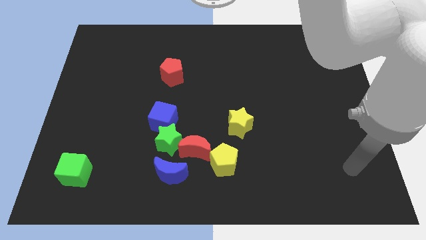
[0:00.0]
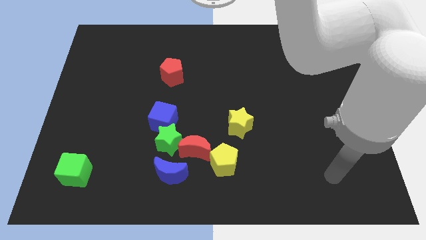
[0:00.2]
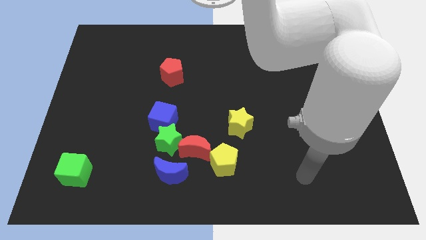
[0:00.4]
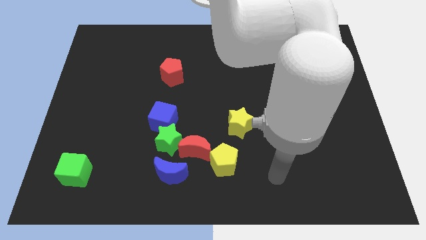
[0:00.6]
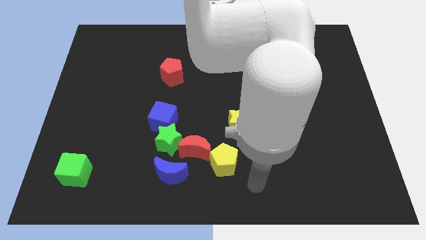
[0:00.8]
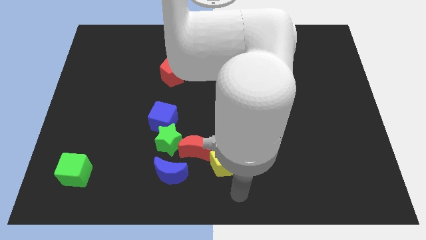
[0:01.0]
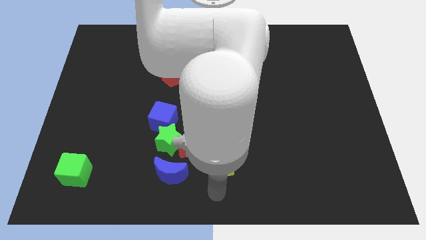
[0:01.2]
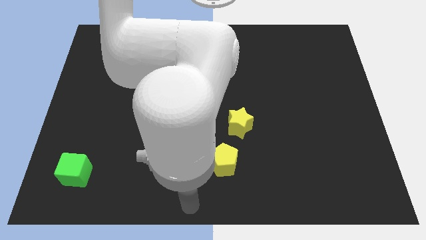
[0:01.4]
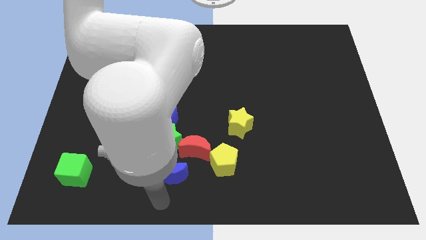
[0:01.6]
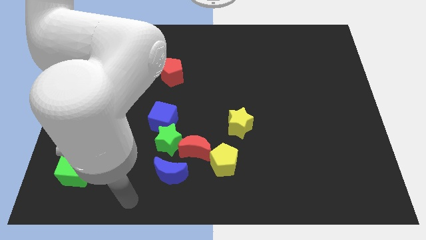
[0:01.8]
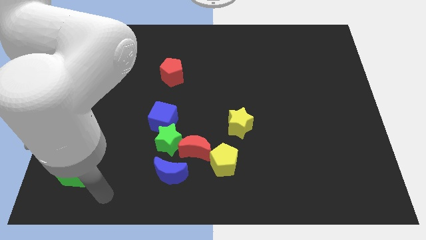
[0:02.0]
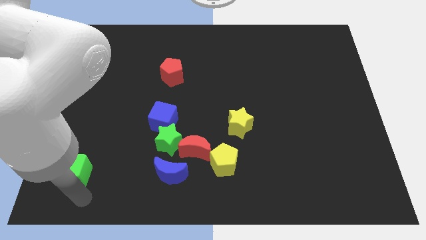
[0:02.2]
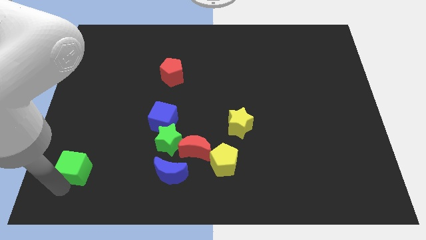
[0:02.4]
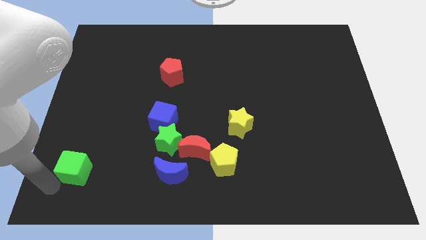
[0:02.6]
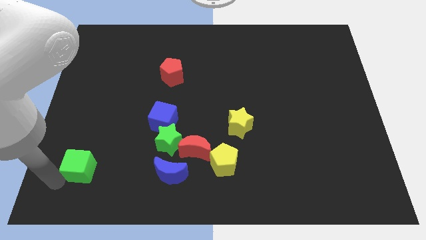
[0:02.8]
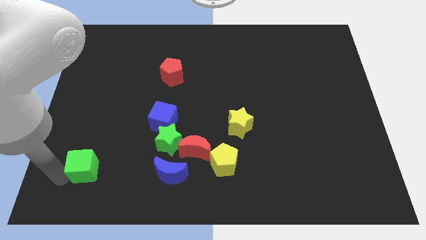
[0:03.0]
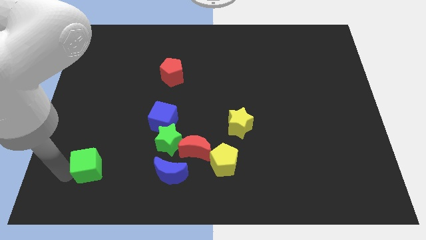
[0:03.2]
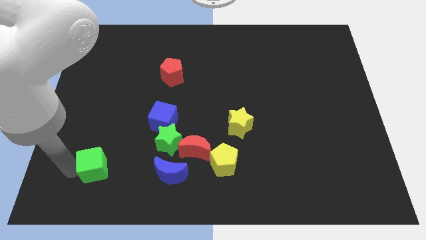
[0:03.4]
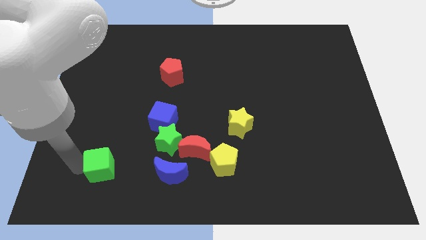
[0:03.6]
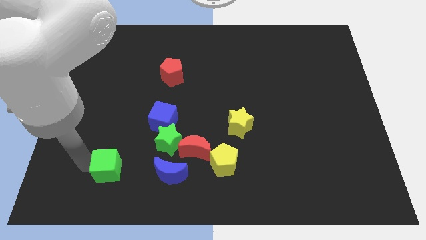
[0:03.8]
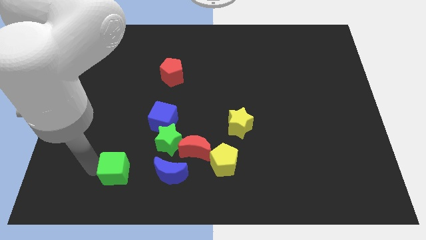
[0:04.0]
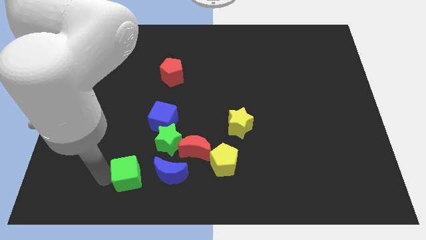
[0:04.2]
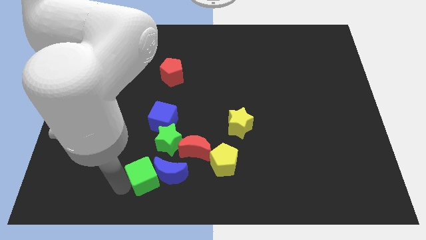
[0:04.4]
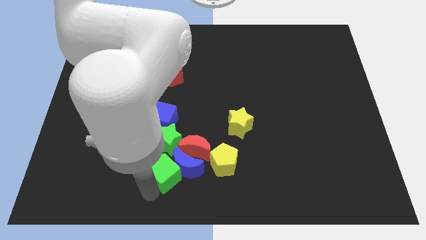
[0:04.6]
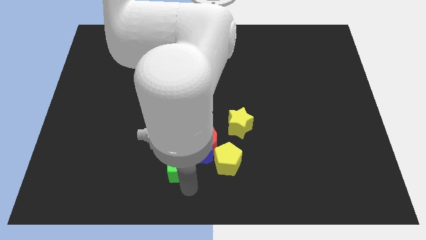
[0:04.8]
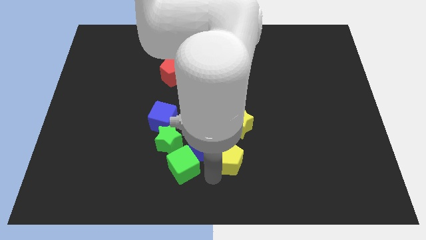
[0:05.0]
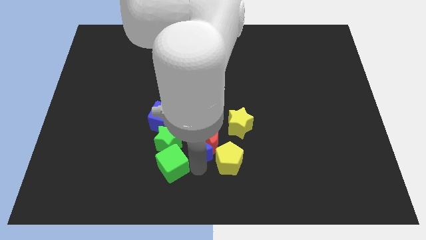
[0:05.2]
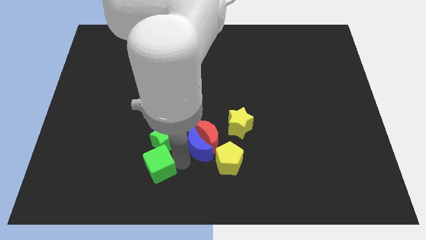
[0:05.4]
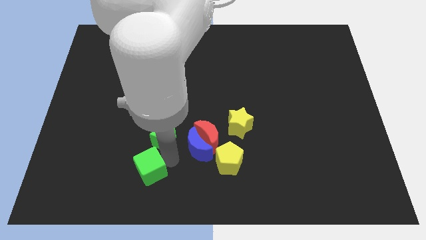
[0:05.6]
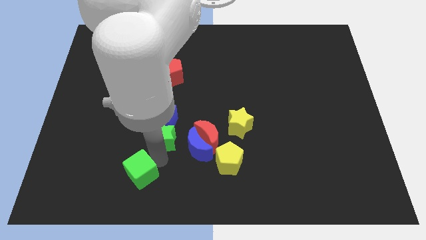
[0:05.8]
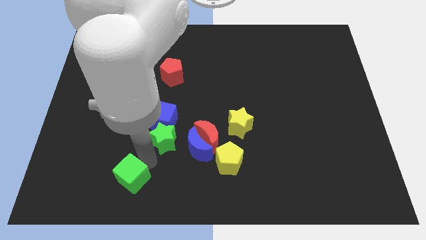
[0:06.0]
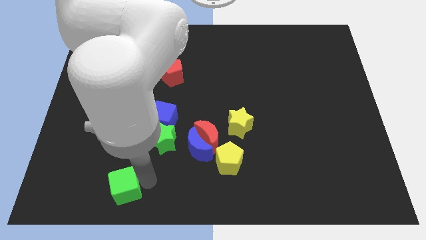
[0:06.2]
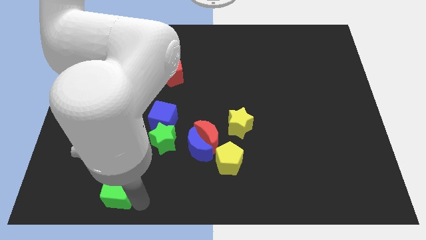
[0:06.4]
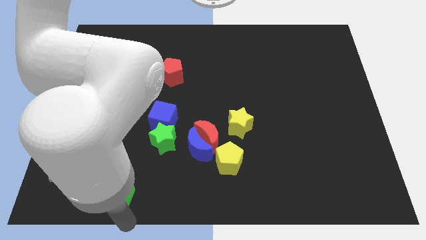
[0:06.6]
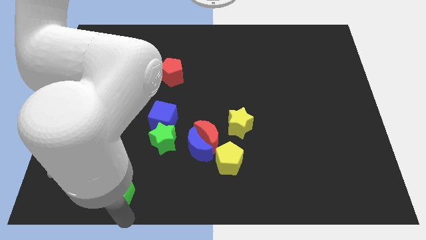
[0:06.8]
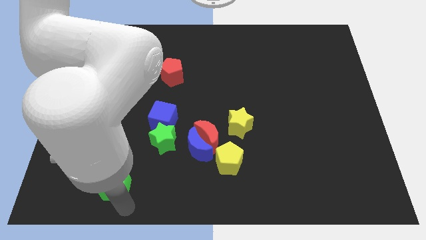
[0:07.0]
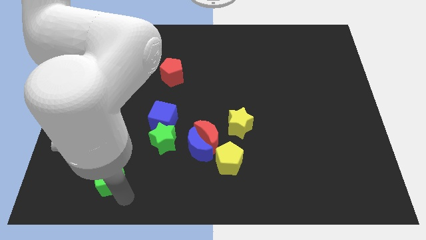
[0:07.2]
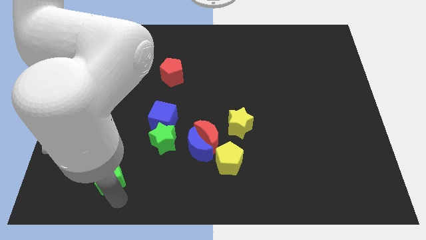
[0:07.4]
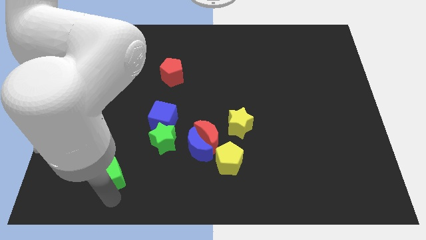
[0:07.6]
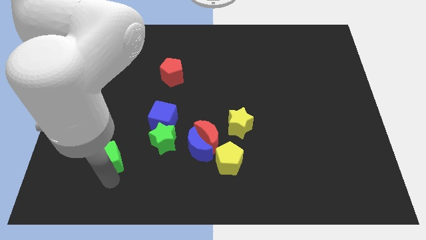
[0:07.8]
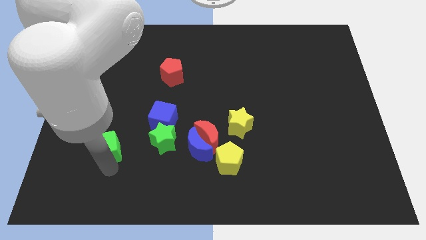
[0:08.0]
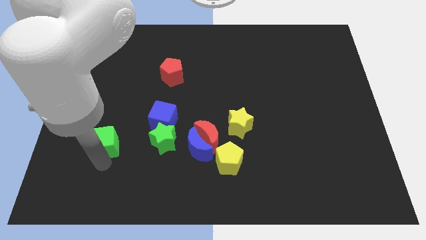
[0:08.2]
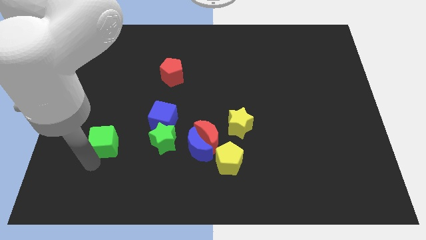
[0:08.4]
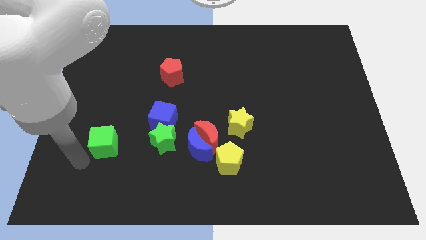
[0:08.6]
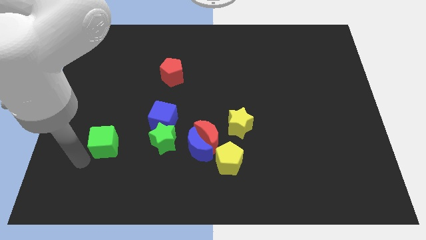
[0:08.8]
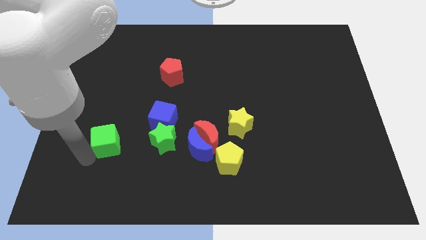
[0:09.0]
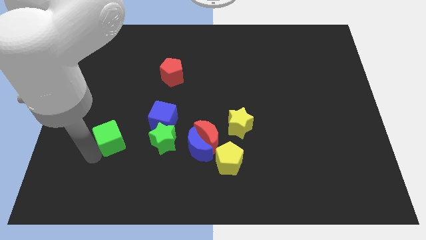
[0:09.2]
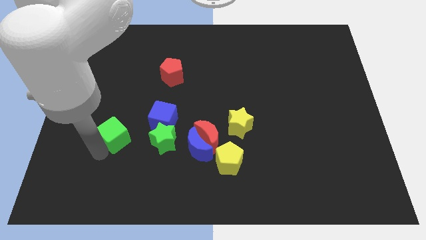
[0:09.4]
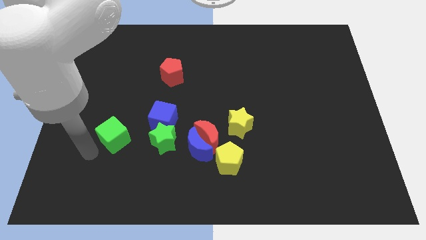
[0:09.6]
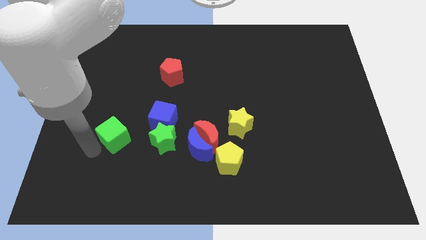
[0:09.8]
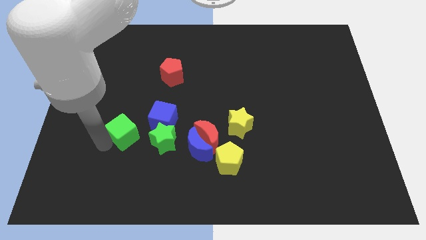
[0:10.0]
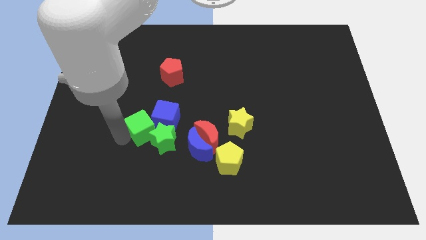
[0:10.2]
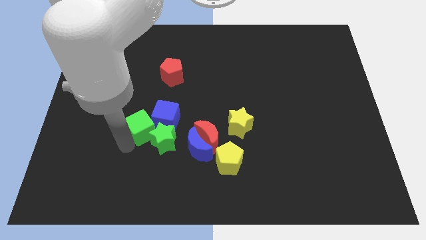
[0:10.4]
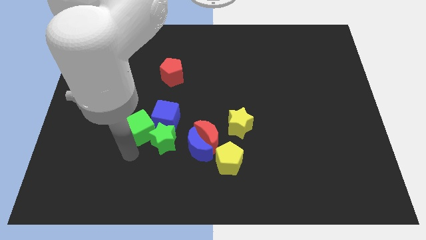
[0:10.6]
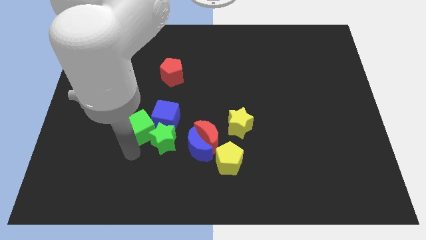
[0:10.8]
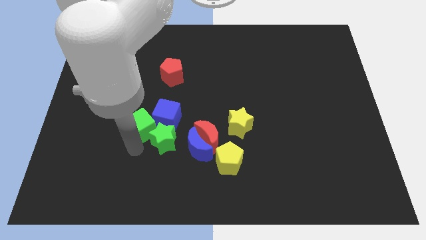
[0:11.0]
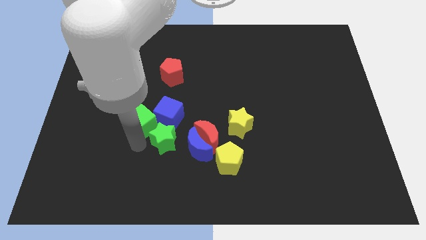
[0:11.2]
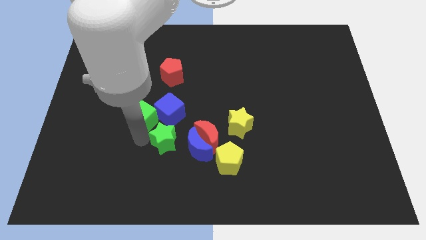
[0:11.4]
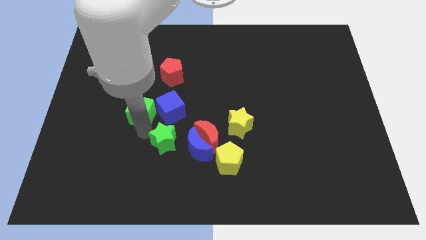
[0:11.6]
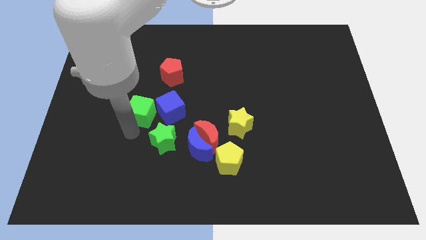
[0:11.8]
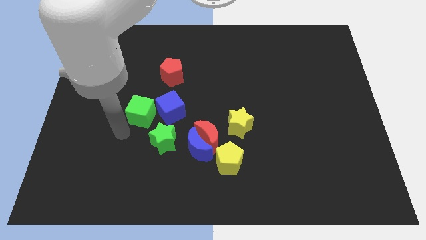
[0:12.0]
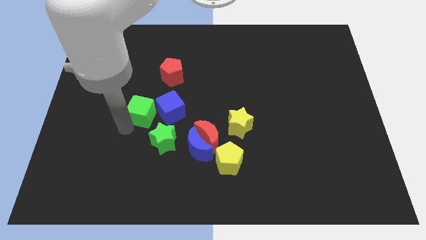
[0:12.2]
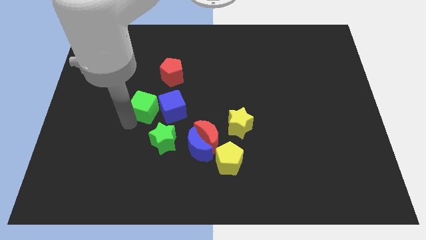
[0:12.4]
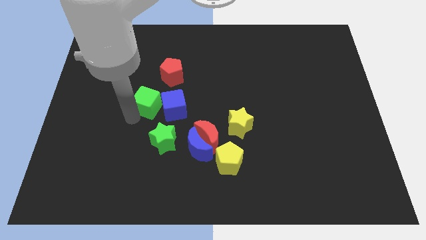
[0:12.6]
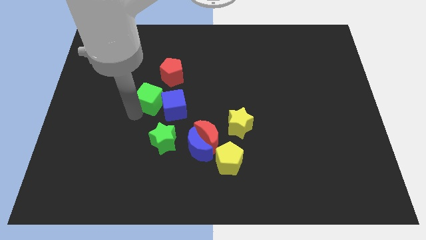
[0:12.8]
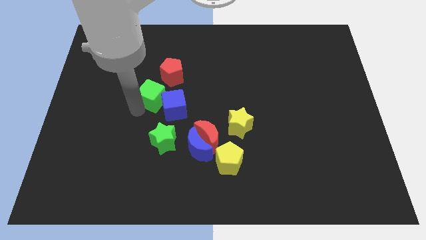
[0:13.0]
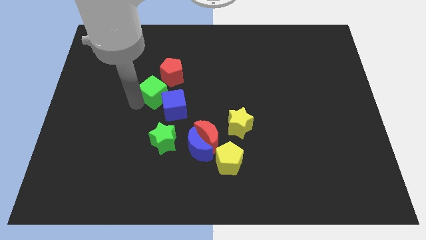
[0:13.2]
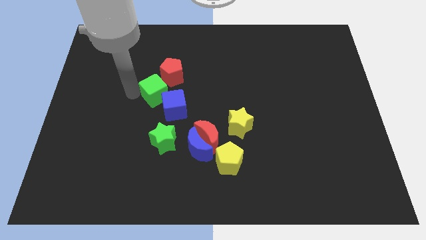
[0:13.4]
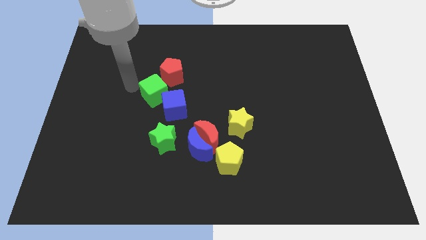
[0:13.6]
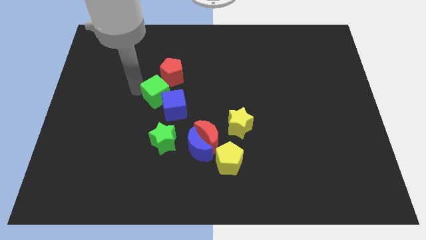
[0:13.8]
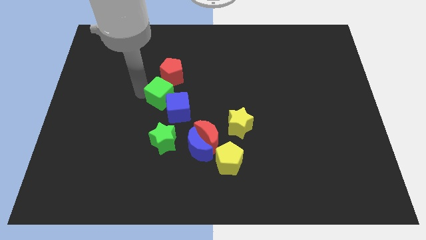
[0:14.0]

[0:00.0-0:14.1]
slide the green cube to the center of the board
